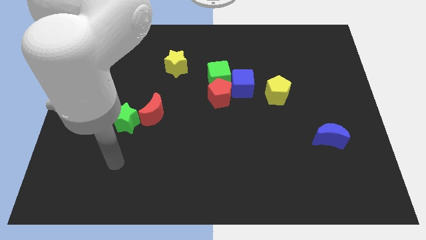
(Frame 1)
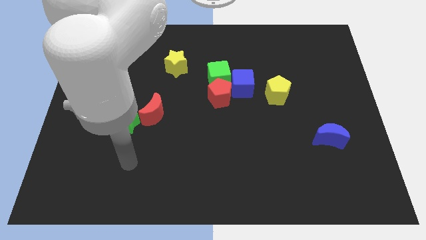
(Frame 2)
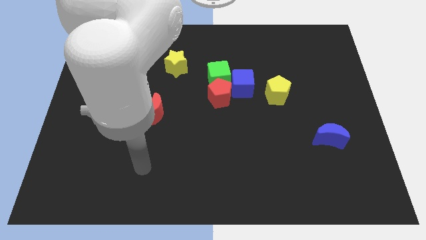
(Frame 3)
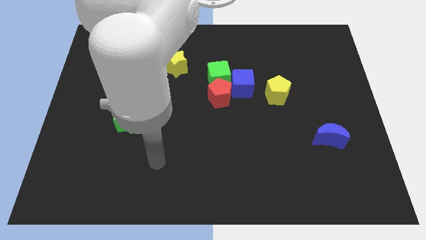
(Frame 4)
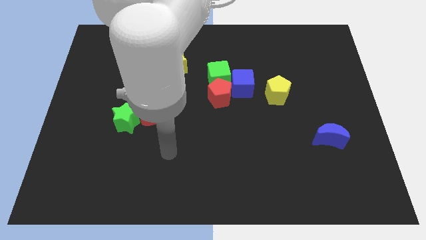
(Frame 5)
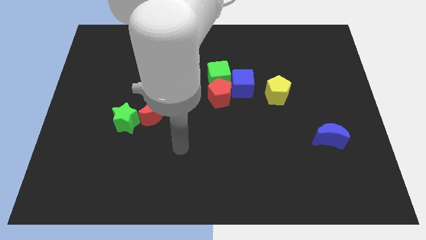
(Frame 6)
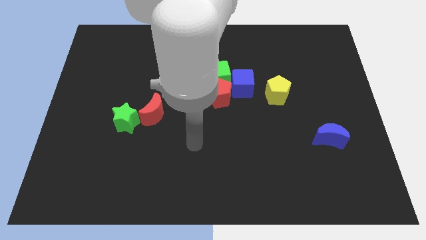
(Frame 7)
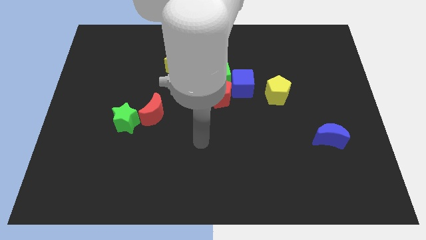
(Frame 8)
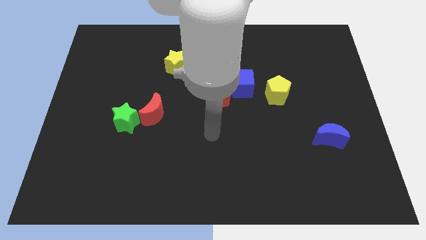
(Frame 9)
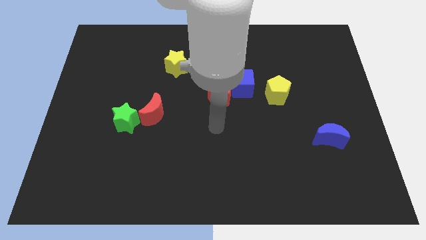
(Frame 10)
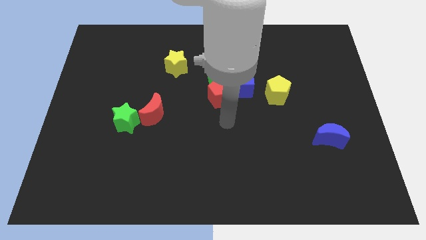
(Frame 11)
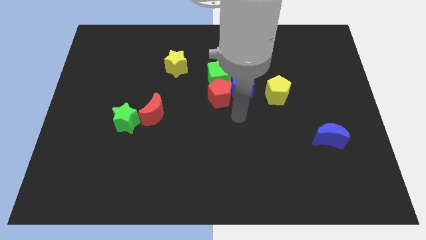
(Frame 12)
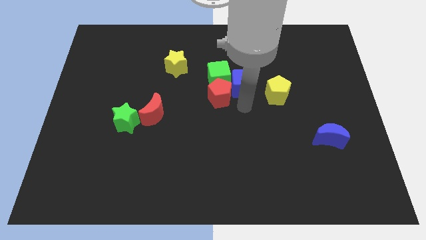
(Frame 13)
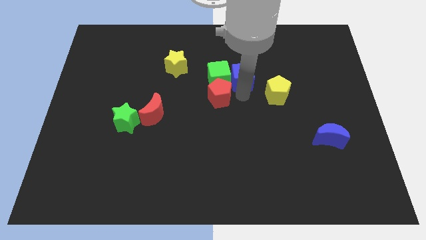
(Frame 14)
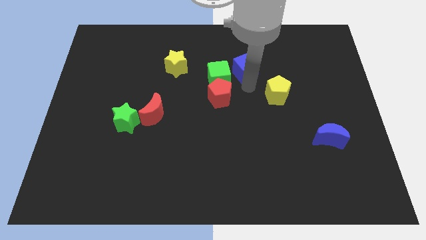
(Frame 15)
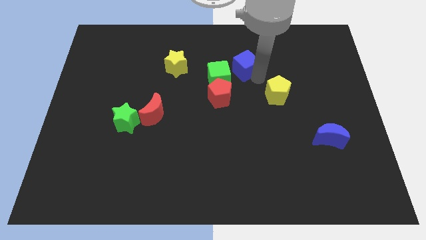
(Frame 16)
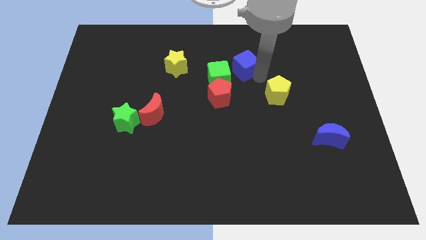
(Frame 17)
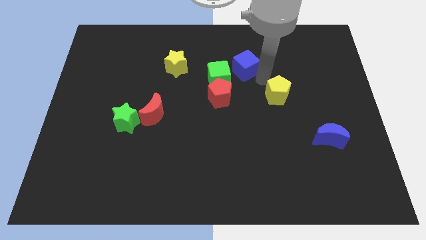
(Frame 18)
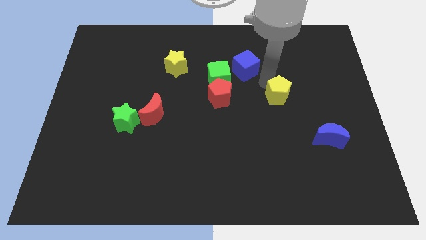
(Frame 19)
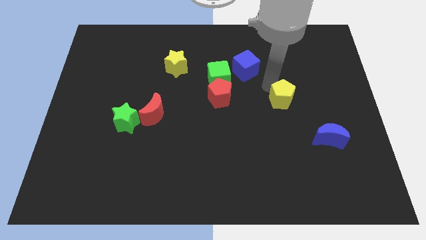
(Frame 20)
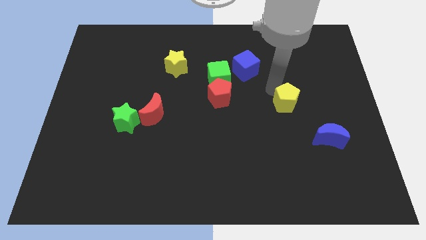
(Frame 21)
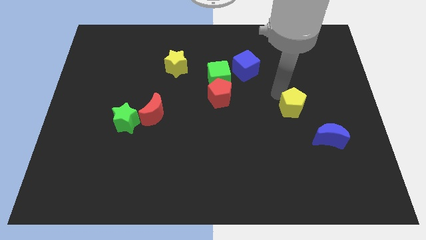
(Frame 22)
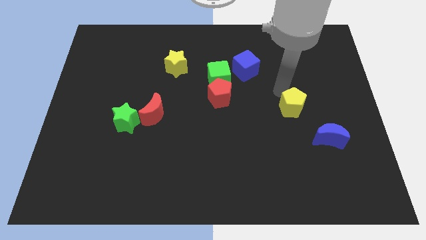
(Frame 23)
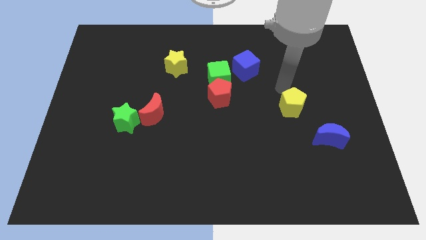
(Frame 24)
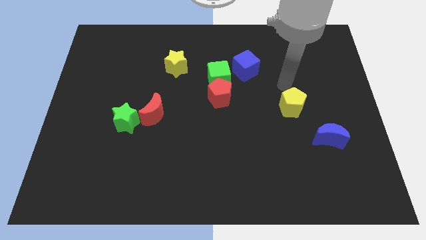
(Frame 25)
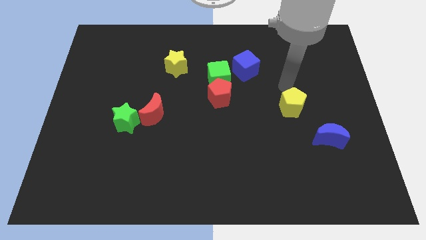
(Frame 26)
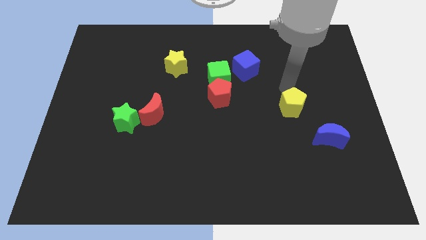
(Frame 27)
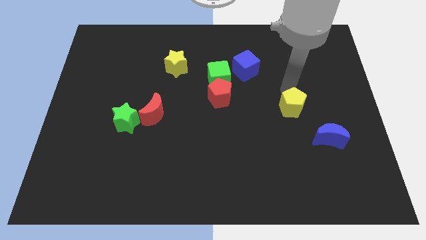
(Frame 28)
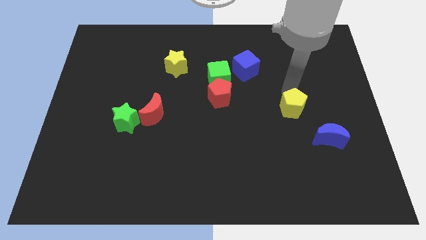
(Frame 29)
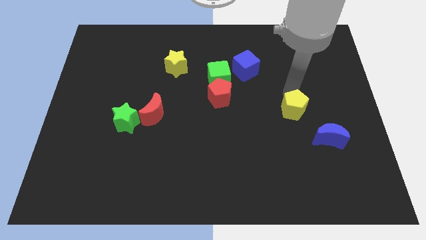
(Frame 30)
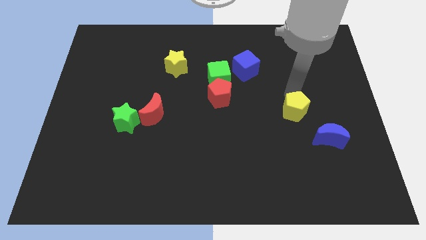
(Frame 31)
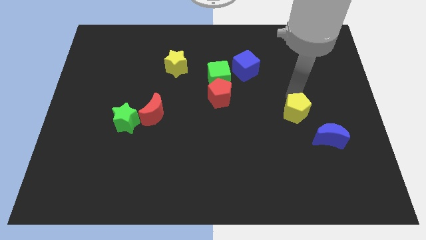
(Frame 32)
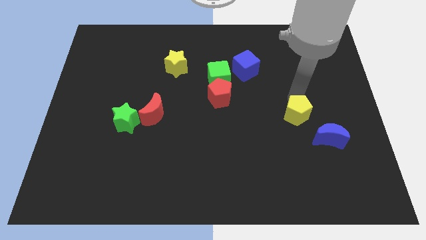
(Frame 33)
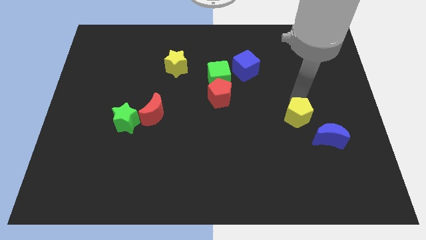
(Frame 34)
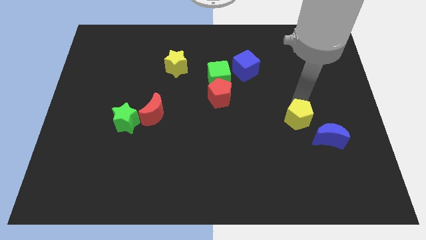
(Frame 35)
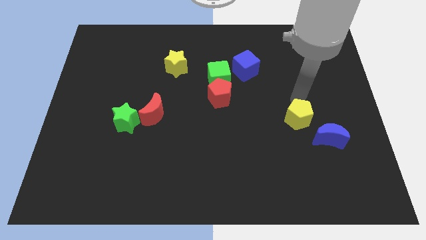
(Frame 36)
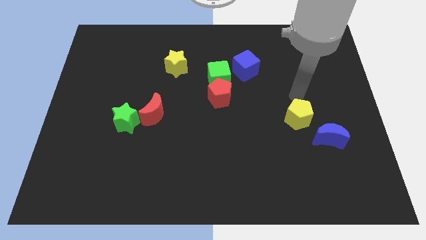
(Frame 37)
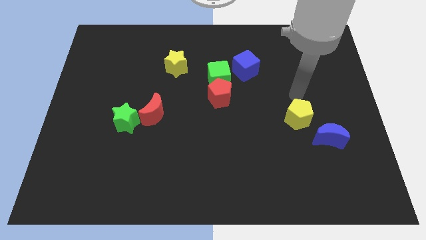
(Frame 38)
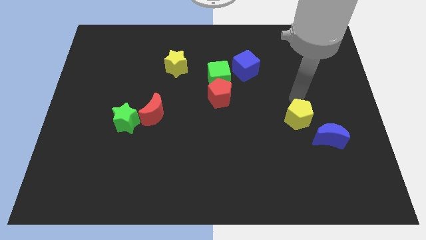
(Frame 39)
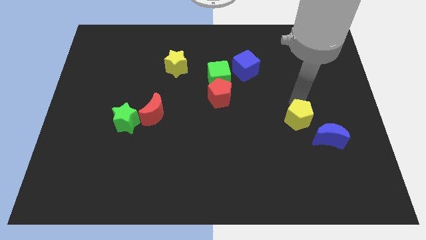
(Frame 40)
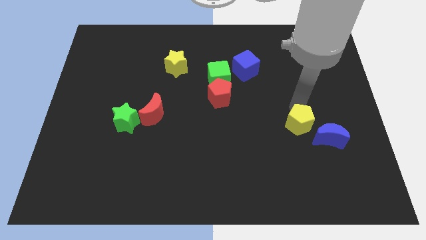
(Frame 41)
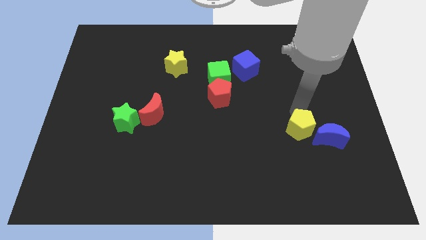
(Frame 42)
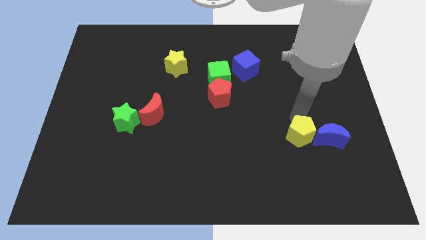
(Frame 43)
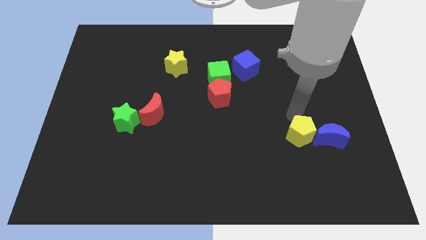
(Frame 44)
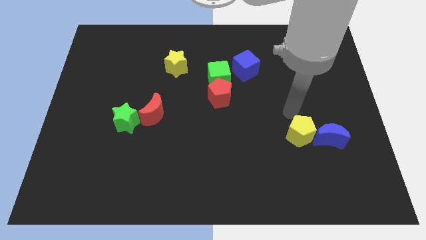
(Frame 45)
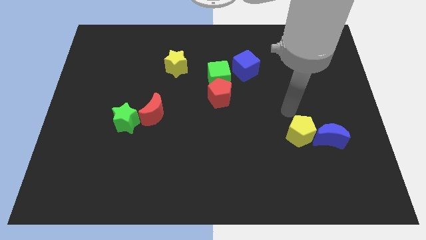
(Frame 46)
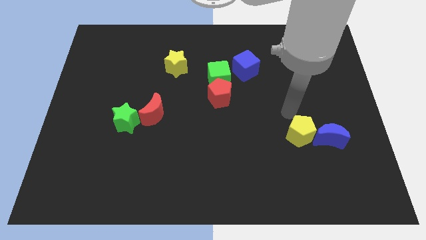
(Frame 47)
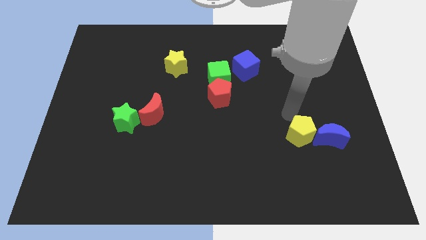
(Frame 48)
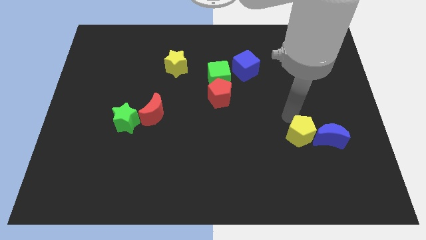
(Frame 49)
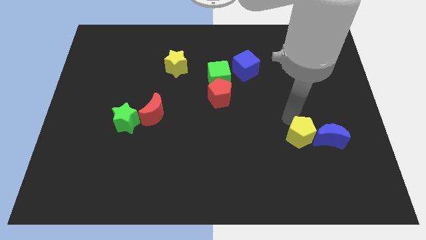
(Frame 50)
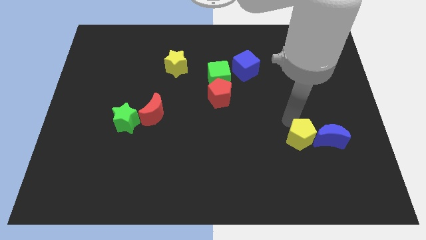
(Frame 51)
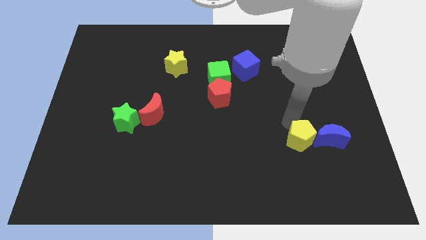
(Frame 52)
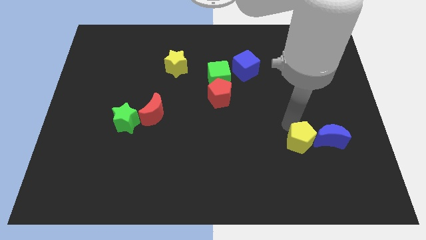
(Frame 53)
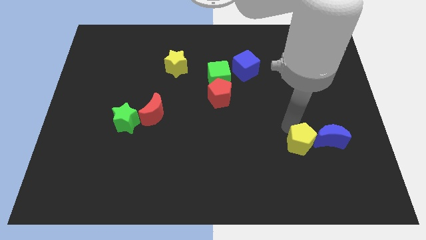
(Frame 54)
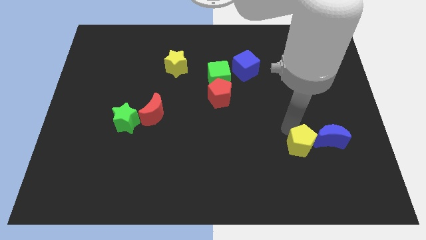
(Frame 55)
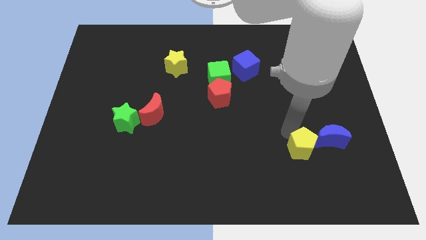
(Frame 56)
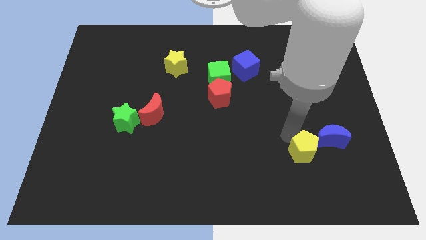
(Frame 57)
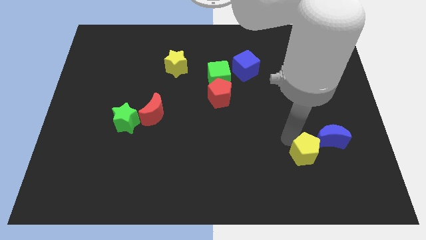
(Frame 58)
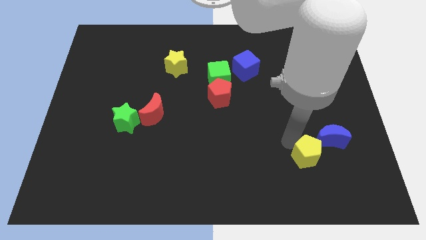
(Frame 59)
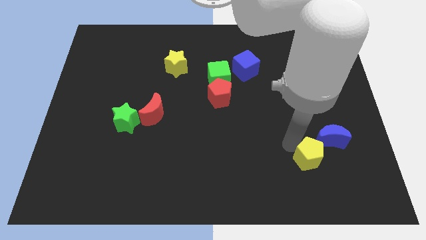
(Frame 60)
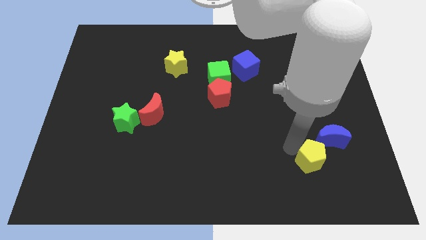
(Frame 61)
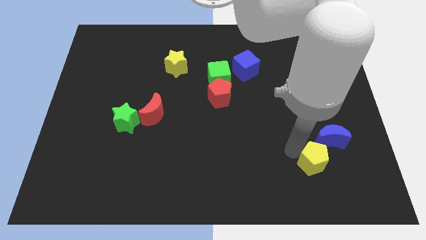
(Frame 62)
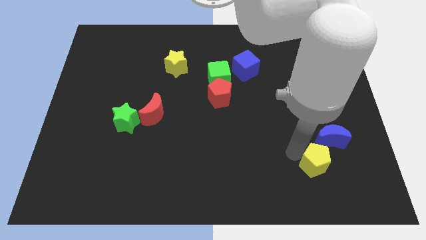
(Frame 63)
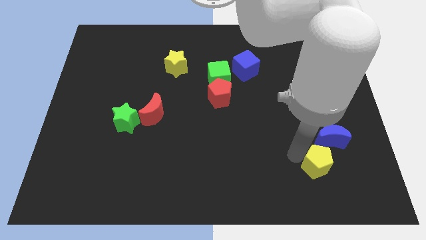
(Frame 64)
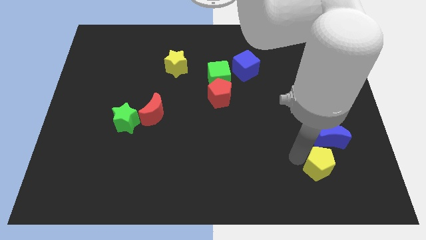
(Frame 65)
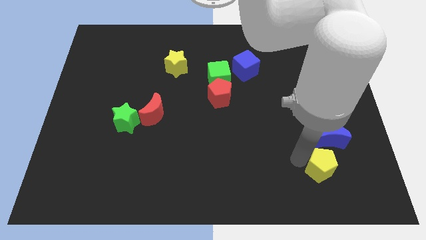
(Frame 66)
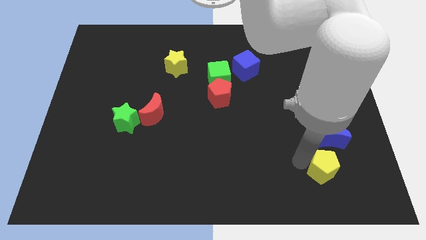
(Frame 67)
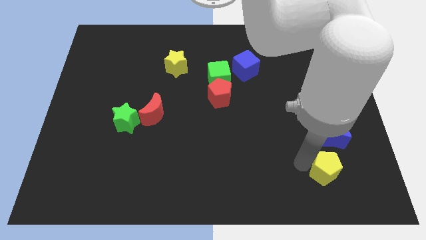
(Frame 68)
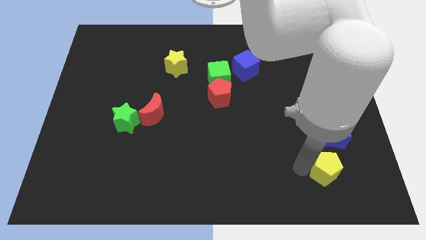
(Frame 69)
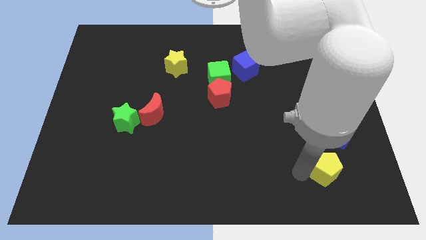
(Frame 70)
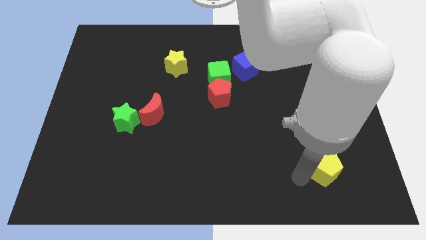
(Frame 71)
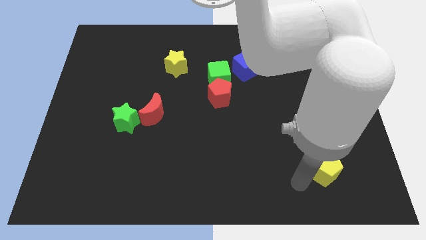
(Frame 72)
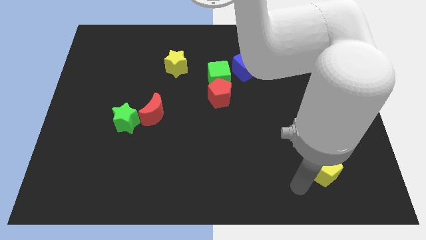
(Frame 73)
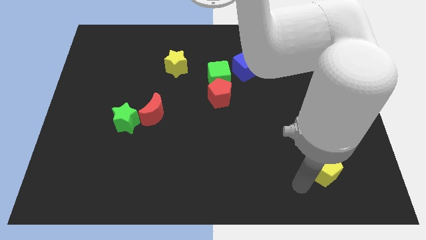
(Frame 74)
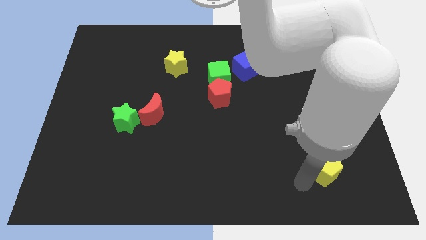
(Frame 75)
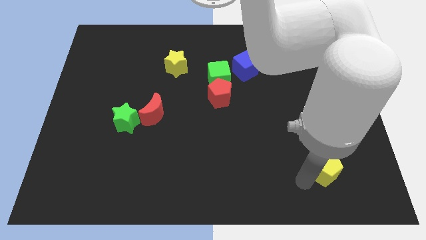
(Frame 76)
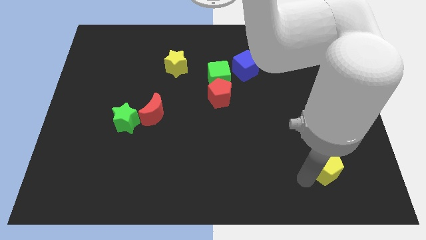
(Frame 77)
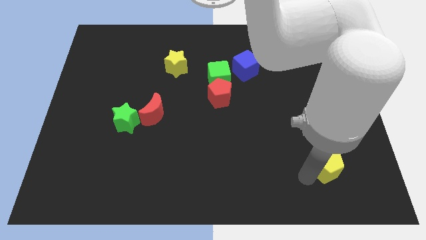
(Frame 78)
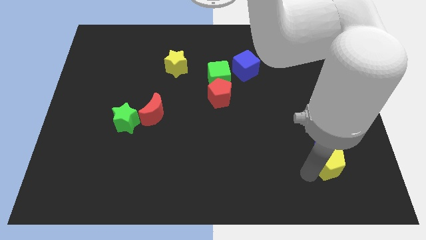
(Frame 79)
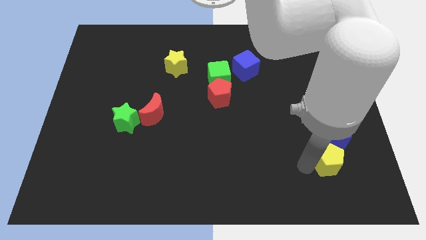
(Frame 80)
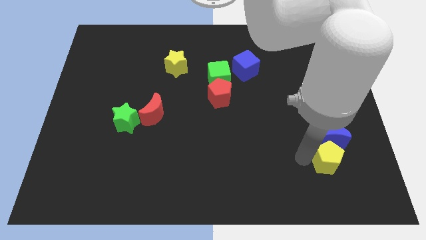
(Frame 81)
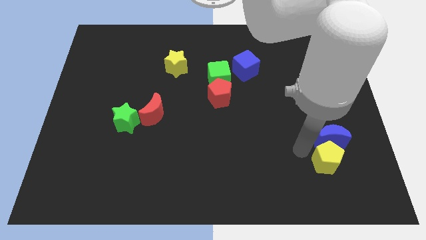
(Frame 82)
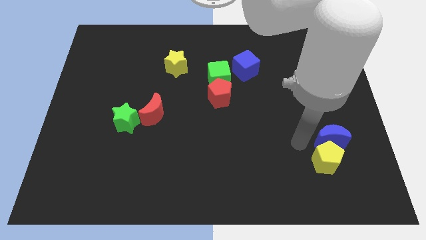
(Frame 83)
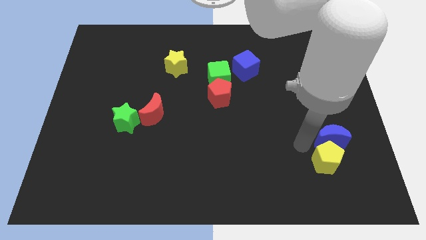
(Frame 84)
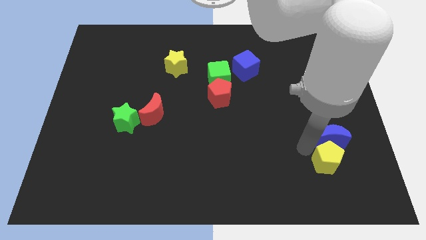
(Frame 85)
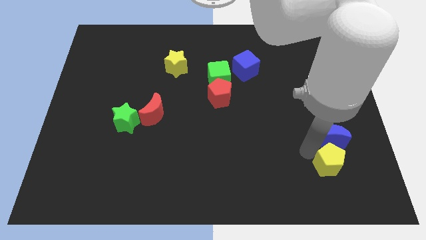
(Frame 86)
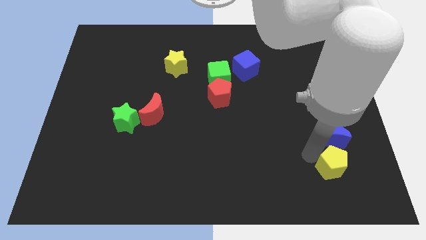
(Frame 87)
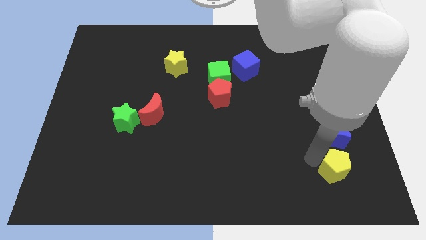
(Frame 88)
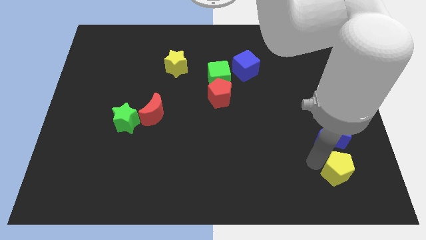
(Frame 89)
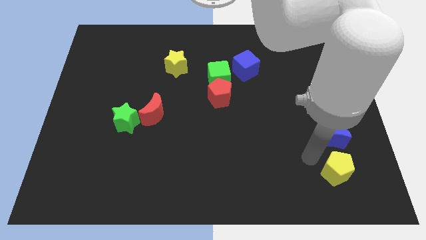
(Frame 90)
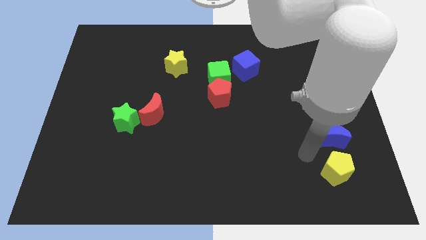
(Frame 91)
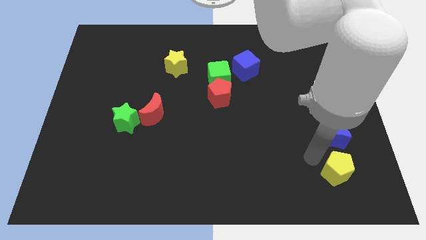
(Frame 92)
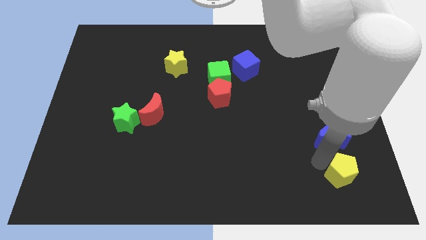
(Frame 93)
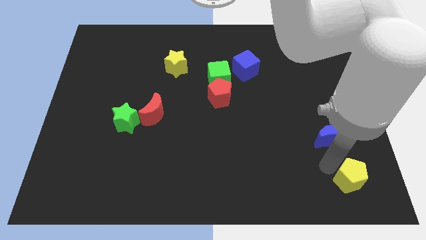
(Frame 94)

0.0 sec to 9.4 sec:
put the yellow pentagon to the bottom right of the board
